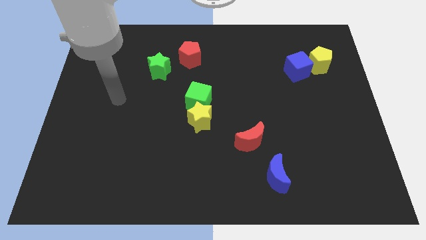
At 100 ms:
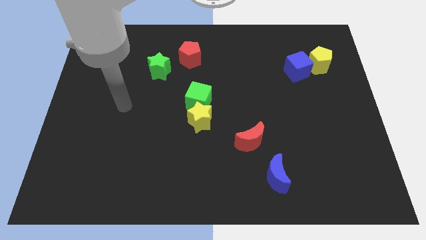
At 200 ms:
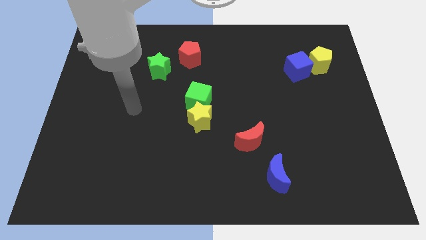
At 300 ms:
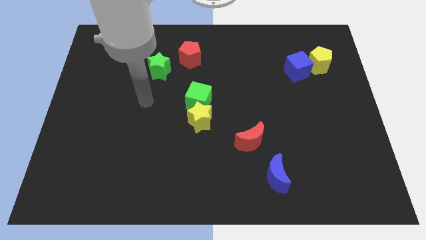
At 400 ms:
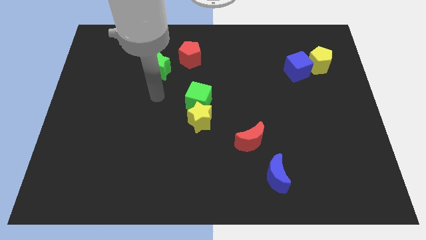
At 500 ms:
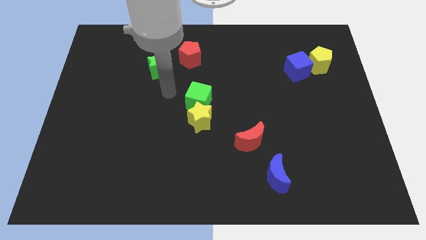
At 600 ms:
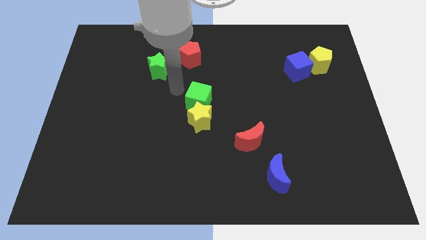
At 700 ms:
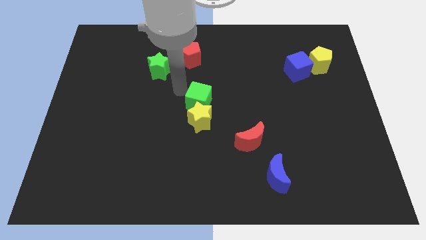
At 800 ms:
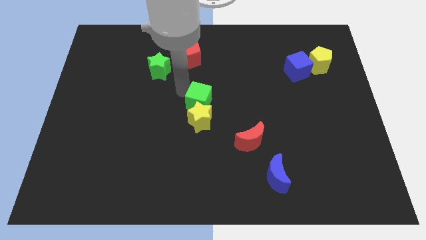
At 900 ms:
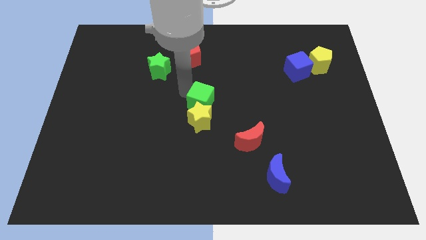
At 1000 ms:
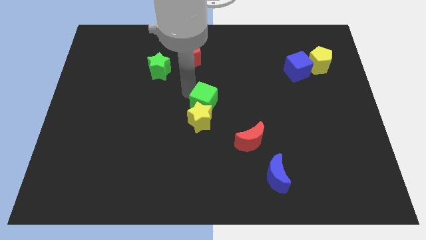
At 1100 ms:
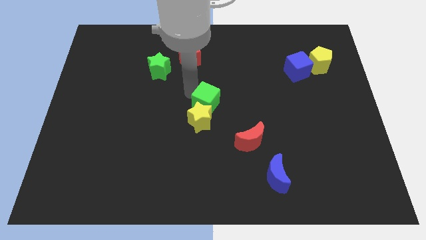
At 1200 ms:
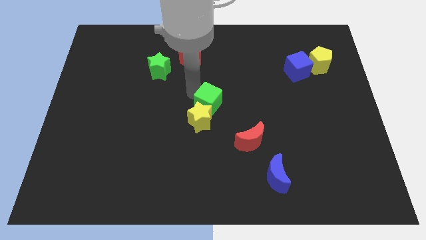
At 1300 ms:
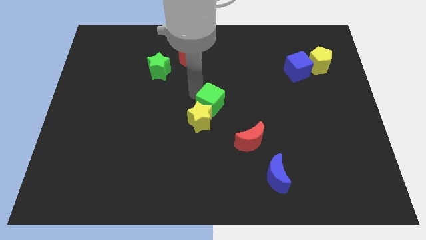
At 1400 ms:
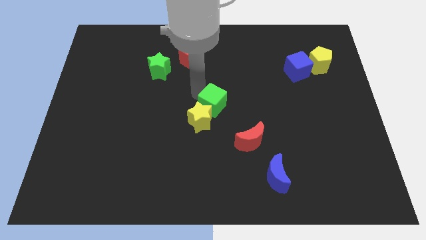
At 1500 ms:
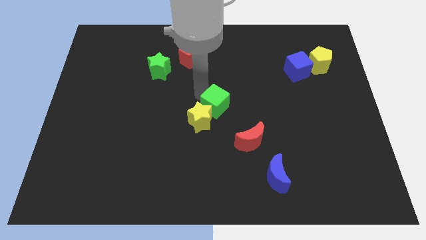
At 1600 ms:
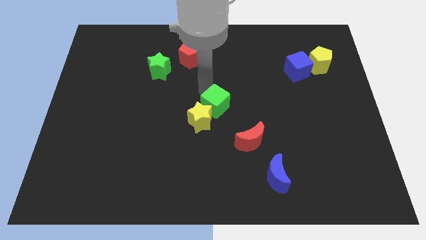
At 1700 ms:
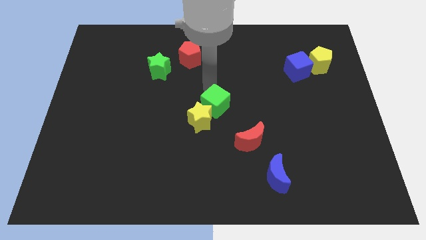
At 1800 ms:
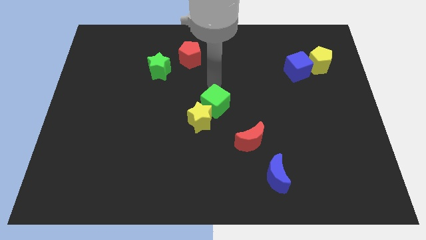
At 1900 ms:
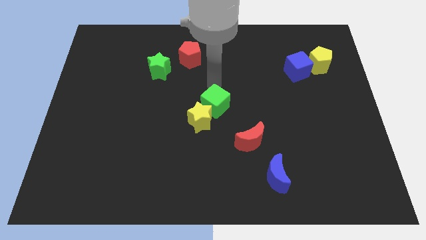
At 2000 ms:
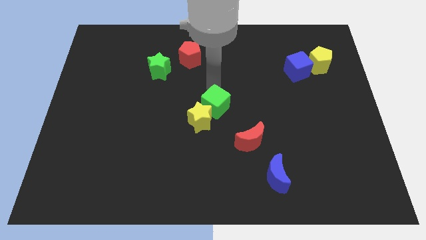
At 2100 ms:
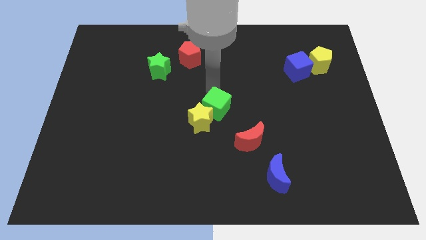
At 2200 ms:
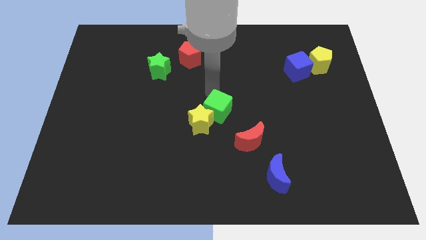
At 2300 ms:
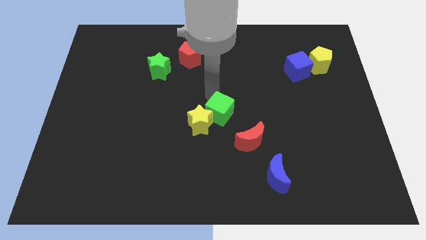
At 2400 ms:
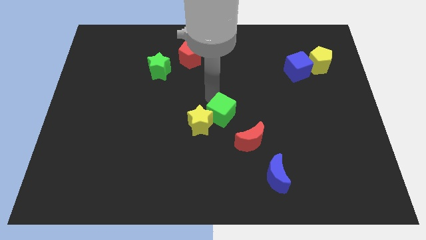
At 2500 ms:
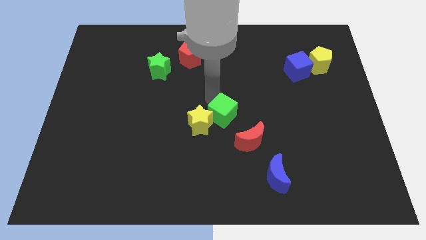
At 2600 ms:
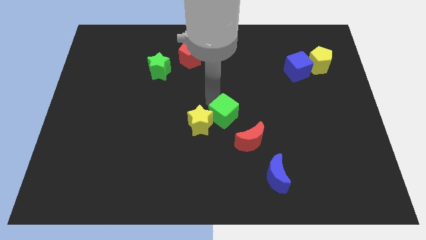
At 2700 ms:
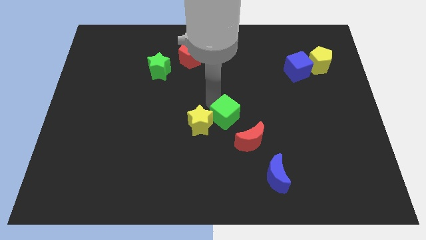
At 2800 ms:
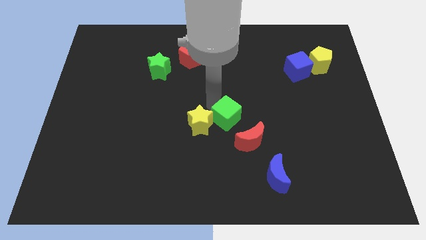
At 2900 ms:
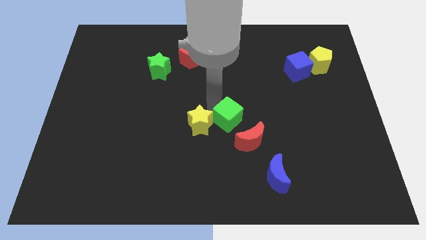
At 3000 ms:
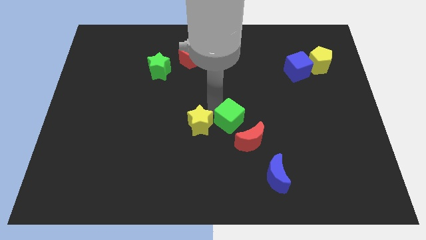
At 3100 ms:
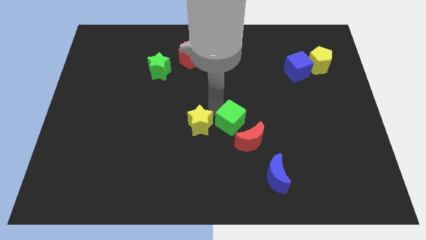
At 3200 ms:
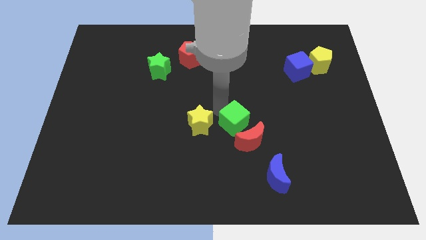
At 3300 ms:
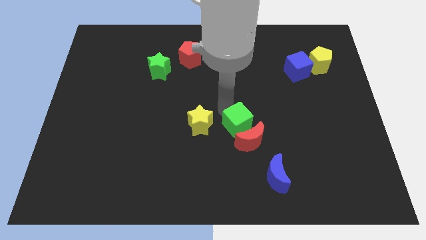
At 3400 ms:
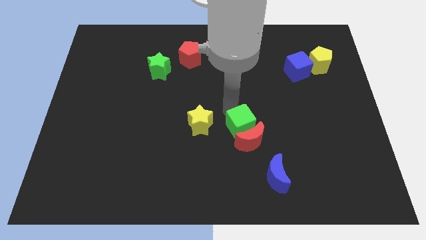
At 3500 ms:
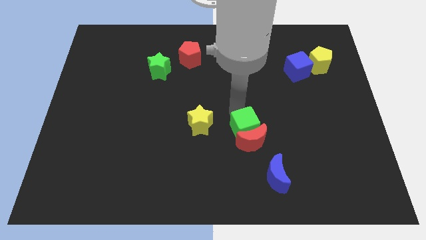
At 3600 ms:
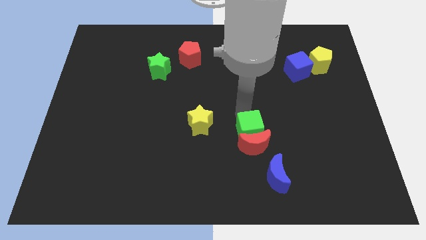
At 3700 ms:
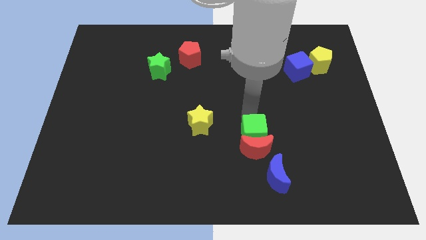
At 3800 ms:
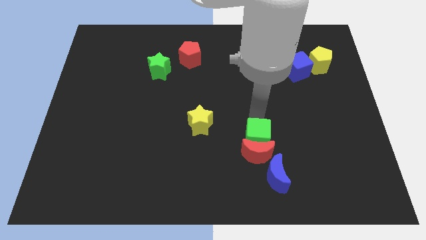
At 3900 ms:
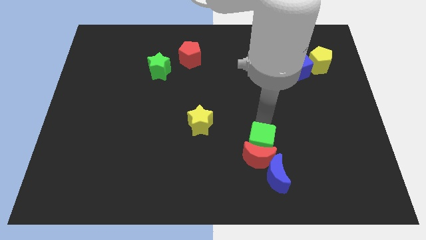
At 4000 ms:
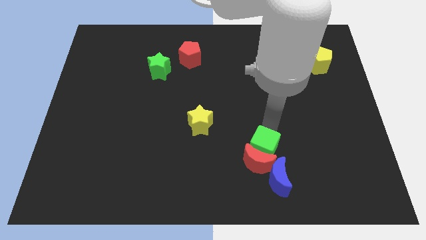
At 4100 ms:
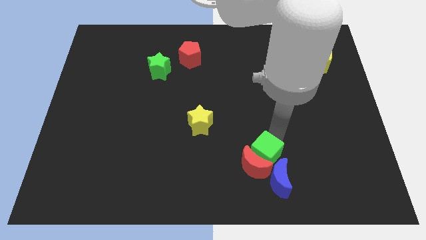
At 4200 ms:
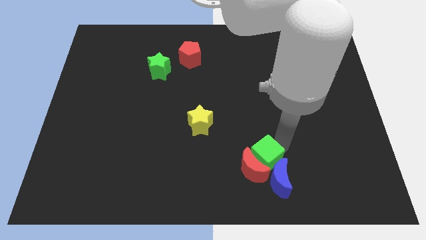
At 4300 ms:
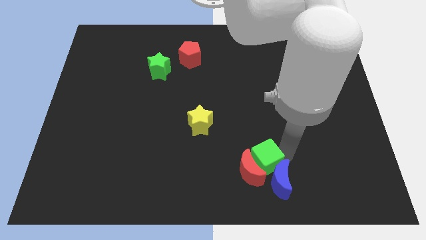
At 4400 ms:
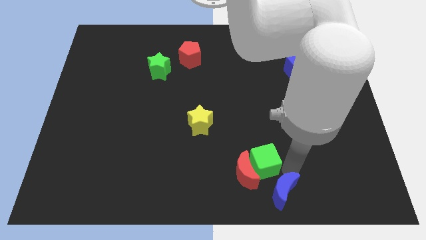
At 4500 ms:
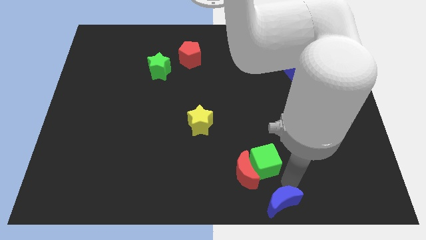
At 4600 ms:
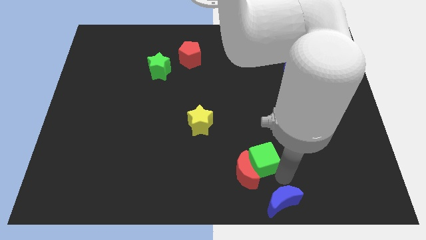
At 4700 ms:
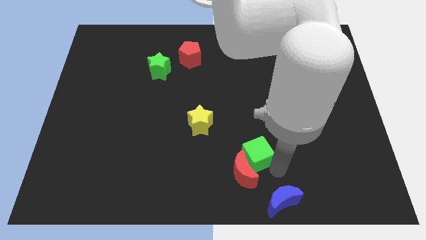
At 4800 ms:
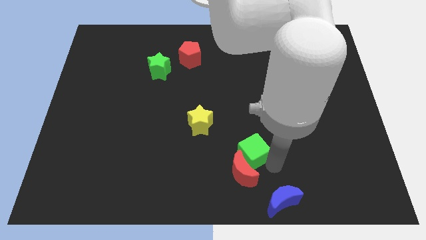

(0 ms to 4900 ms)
move the green cube a little bit down

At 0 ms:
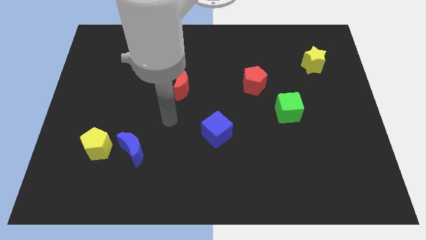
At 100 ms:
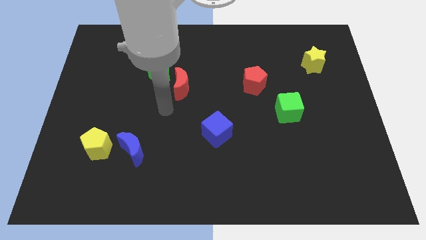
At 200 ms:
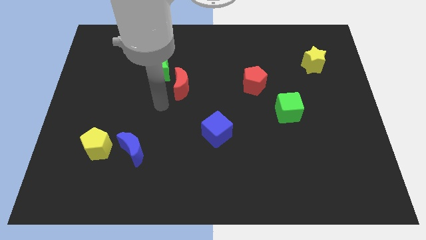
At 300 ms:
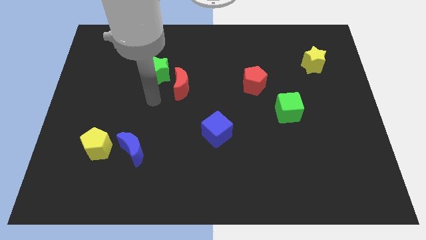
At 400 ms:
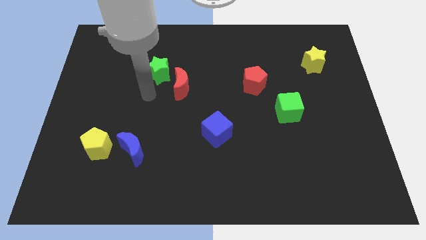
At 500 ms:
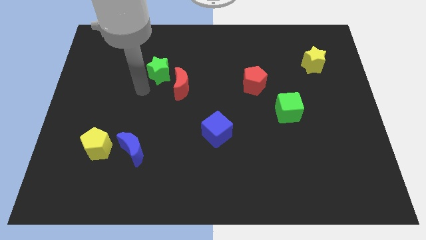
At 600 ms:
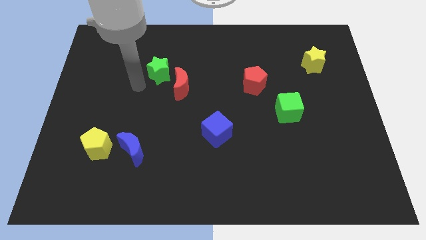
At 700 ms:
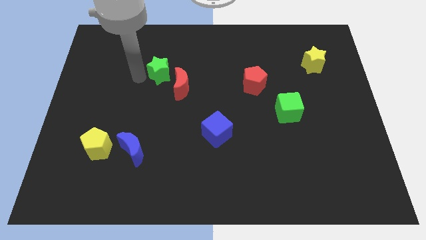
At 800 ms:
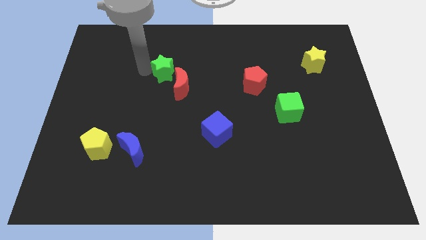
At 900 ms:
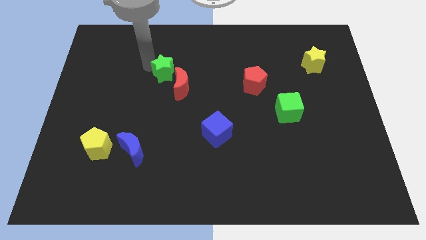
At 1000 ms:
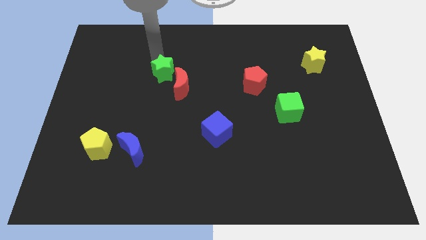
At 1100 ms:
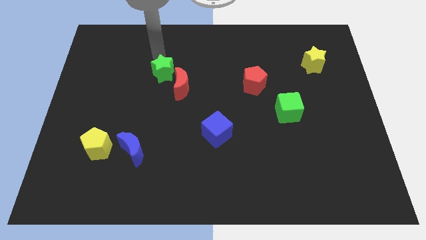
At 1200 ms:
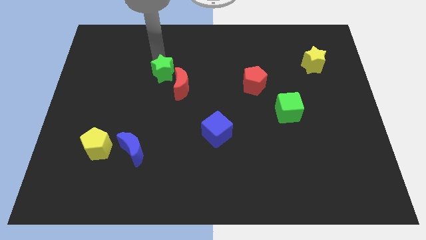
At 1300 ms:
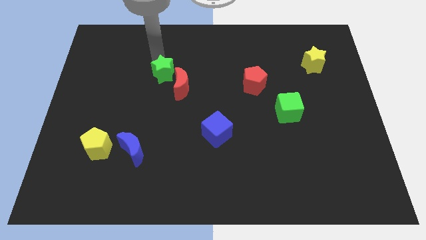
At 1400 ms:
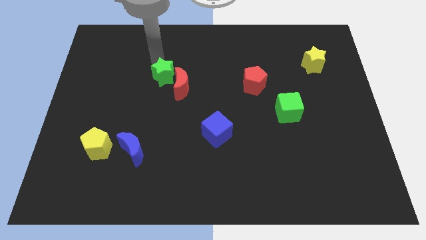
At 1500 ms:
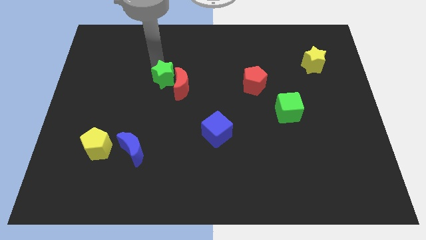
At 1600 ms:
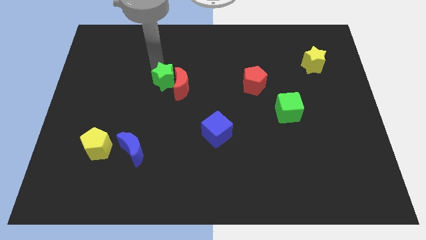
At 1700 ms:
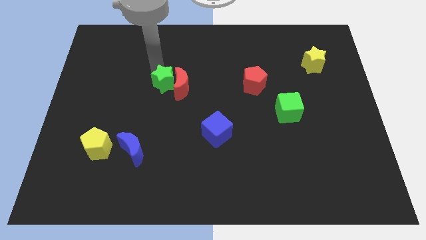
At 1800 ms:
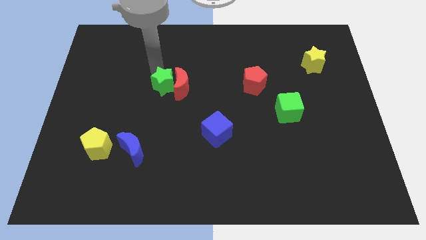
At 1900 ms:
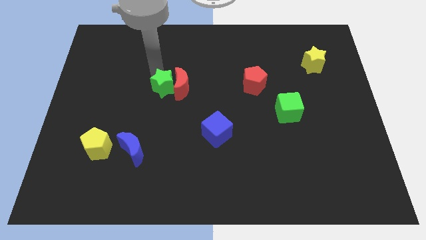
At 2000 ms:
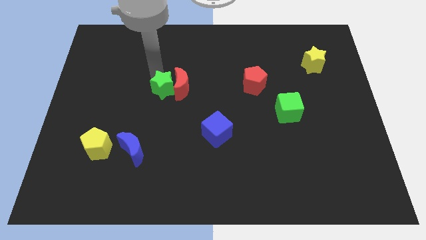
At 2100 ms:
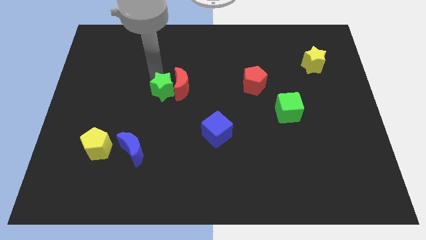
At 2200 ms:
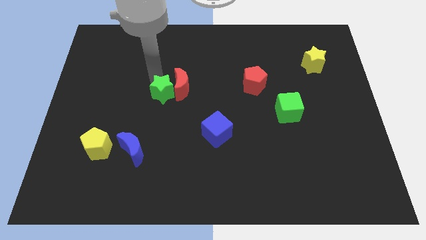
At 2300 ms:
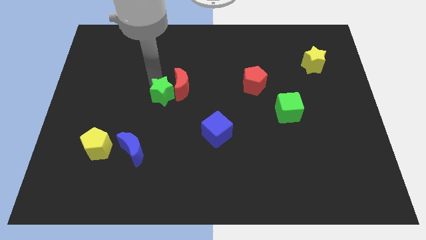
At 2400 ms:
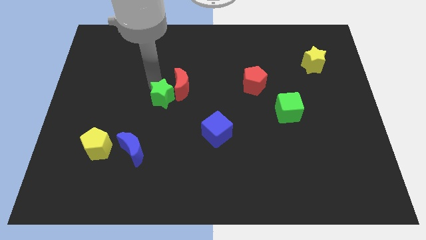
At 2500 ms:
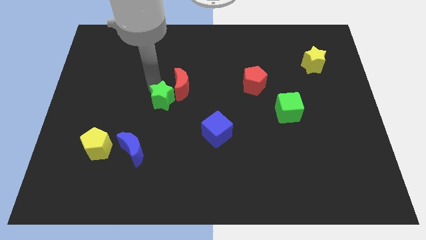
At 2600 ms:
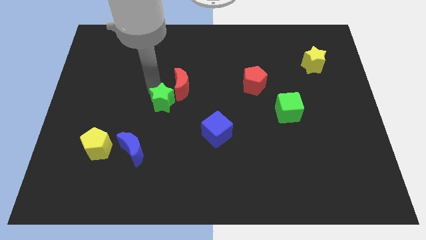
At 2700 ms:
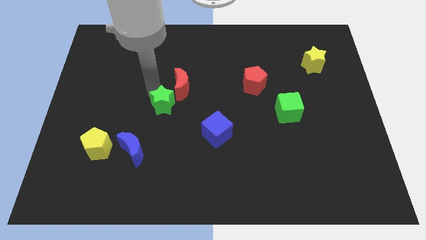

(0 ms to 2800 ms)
slightly slide the green star diagonally downwards and right

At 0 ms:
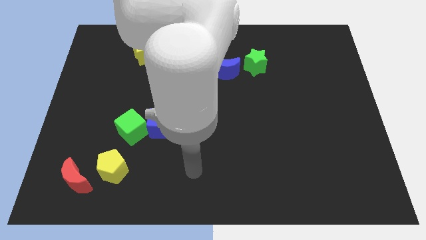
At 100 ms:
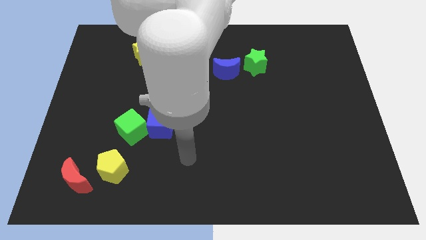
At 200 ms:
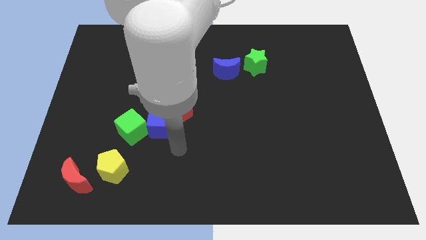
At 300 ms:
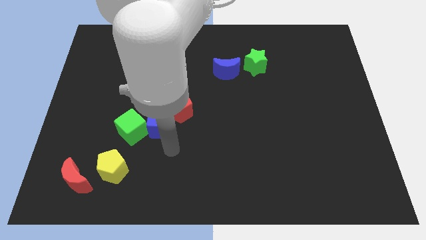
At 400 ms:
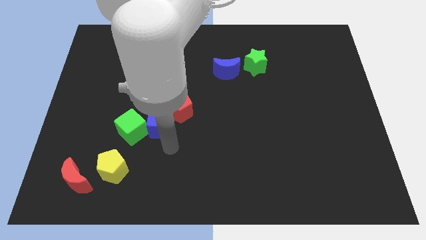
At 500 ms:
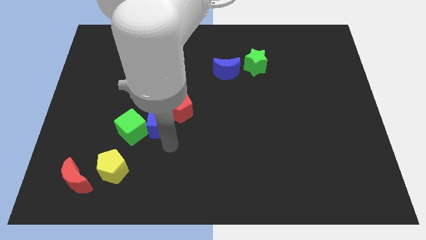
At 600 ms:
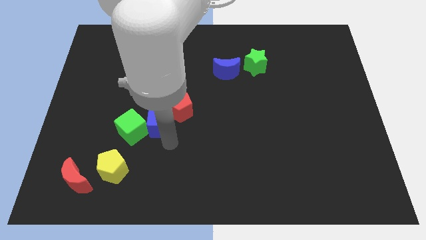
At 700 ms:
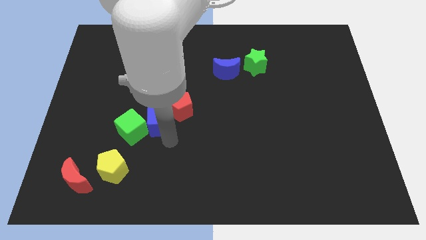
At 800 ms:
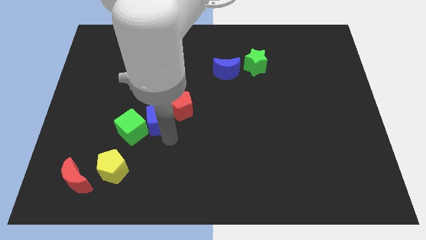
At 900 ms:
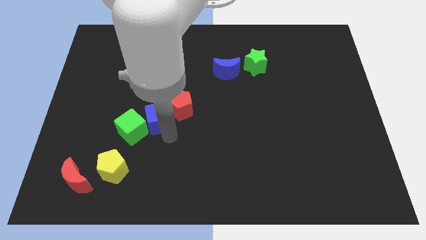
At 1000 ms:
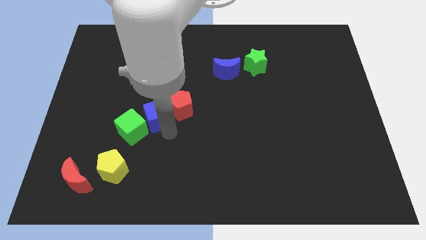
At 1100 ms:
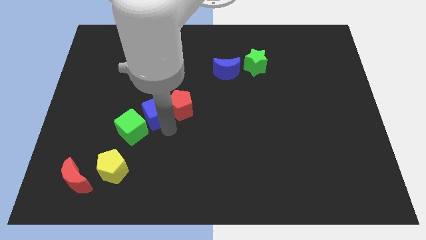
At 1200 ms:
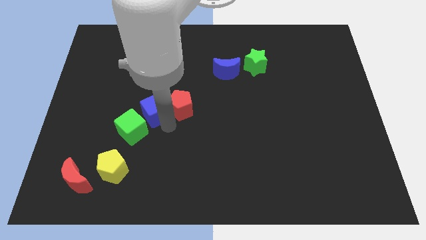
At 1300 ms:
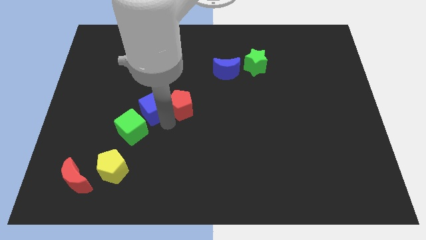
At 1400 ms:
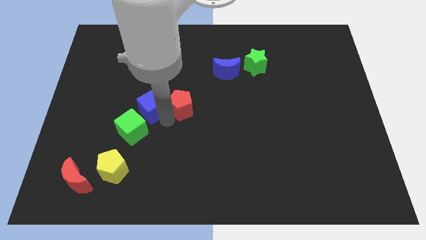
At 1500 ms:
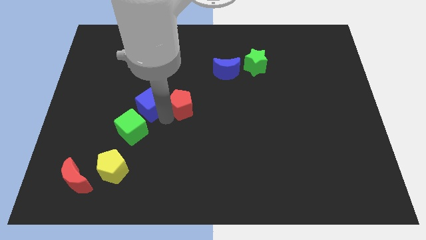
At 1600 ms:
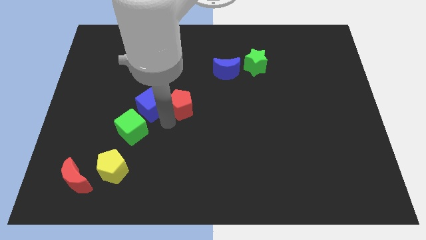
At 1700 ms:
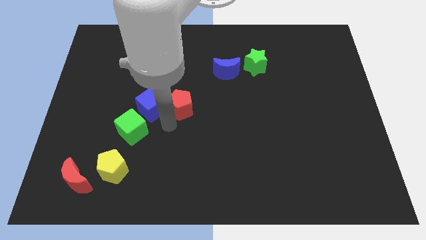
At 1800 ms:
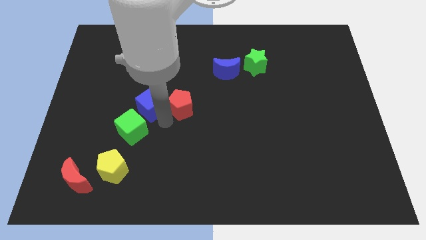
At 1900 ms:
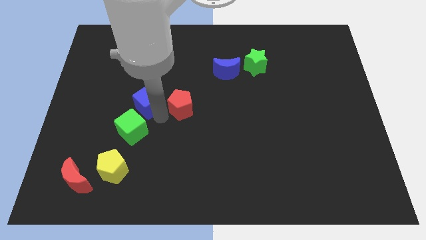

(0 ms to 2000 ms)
push the blue cube somewhat upwards and then left
